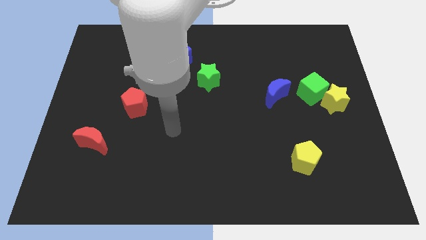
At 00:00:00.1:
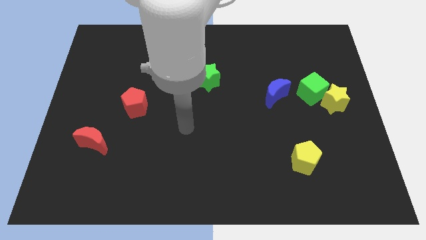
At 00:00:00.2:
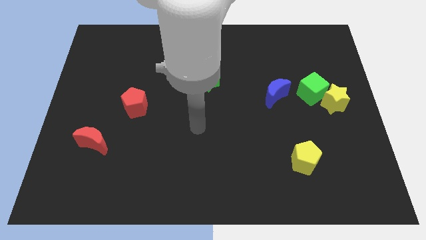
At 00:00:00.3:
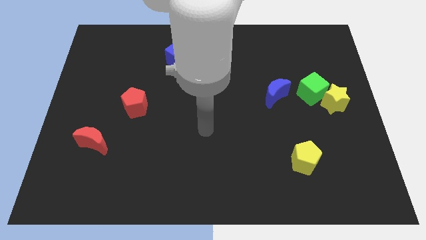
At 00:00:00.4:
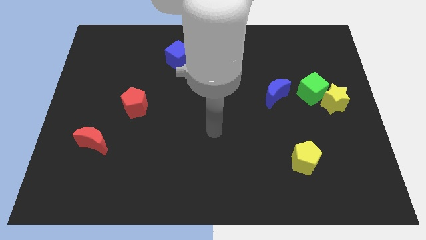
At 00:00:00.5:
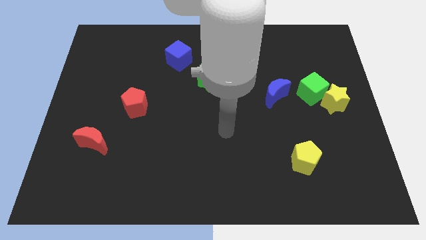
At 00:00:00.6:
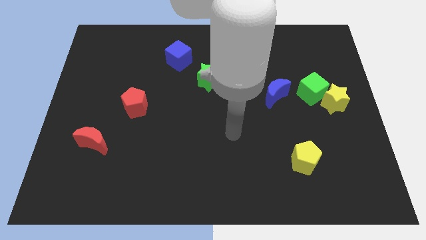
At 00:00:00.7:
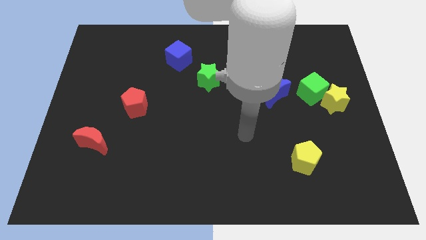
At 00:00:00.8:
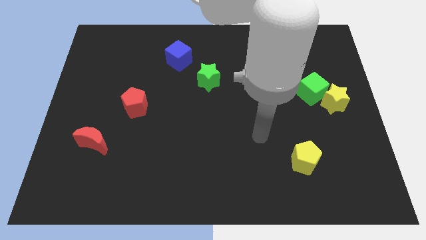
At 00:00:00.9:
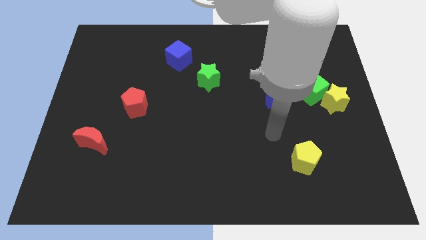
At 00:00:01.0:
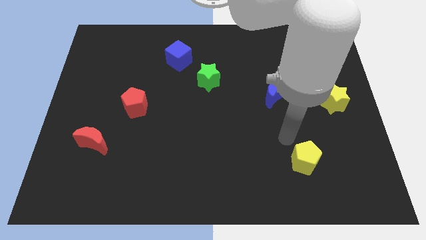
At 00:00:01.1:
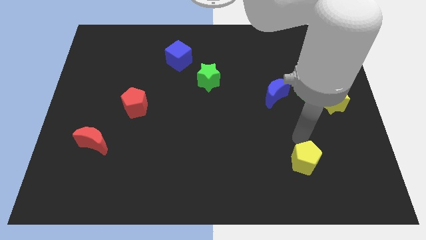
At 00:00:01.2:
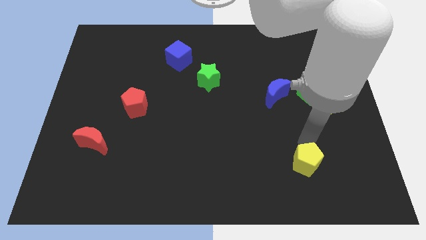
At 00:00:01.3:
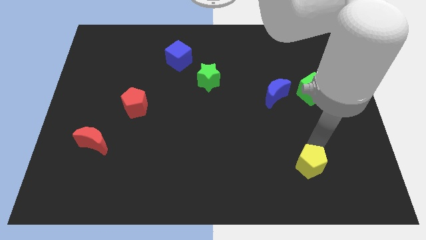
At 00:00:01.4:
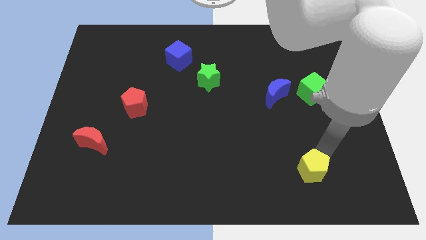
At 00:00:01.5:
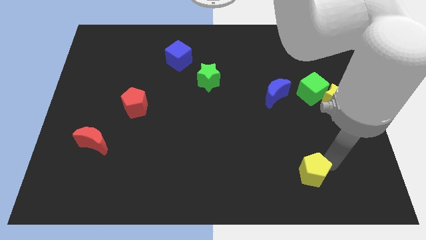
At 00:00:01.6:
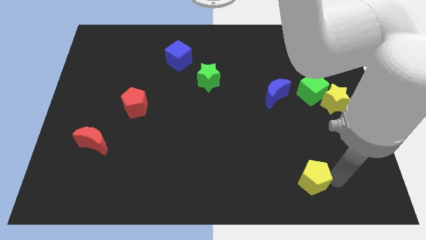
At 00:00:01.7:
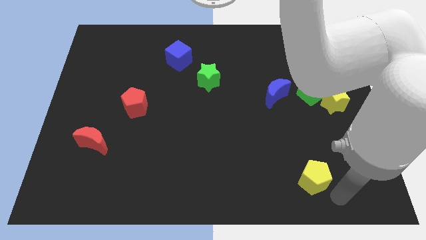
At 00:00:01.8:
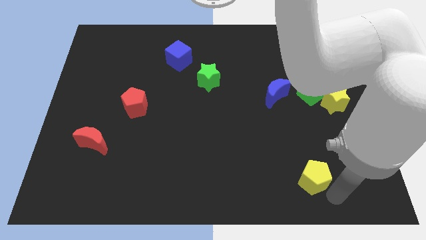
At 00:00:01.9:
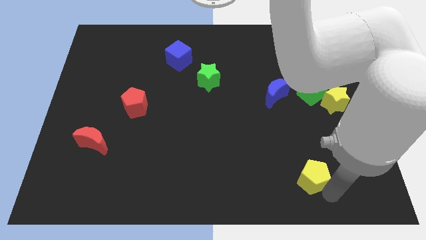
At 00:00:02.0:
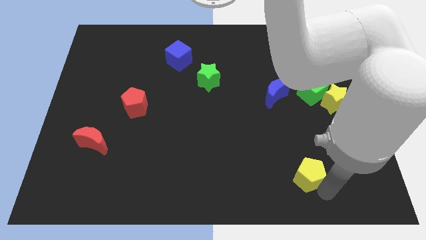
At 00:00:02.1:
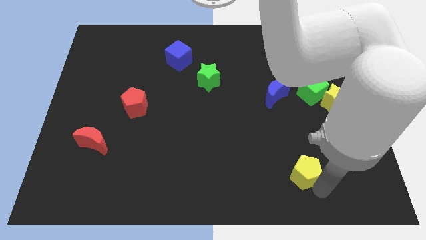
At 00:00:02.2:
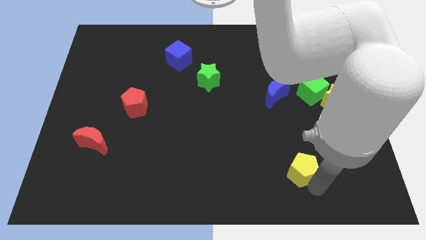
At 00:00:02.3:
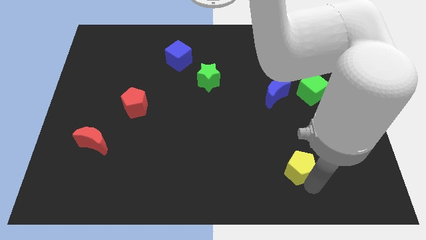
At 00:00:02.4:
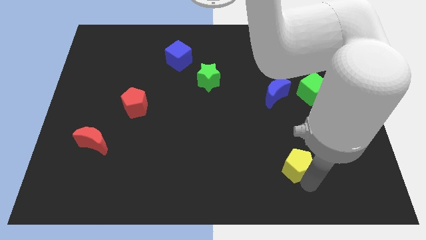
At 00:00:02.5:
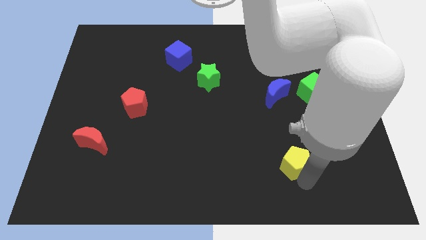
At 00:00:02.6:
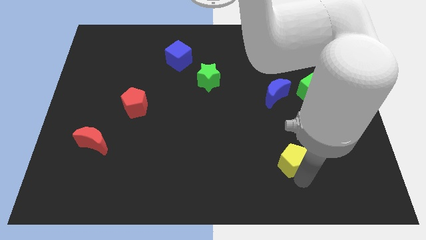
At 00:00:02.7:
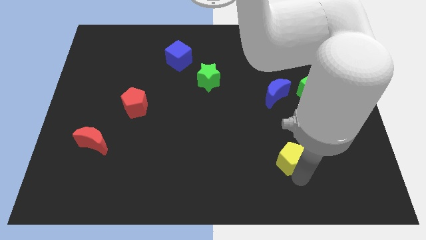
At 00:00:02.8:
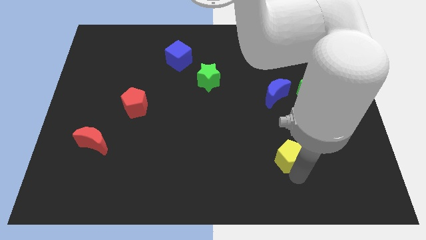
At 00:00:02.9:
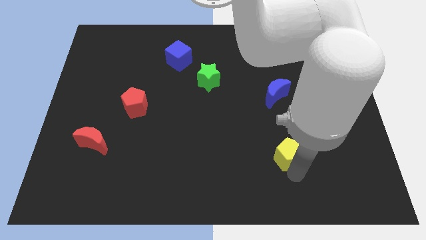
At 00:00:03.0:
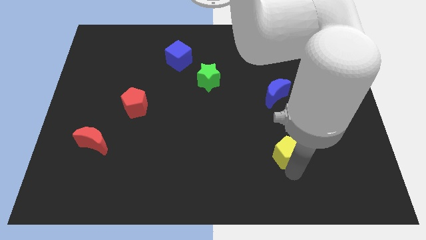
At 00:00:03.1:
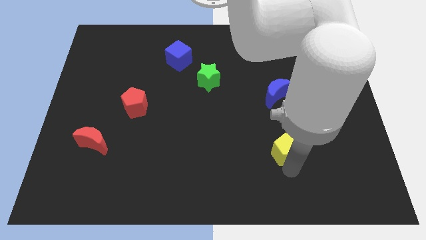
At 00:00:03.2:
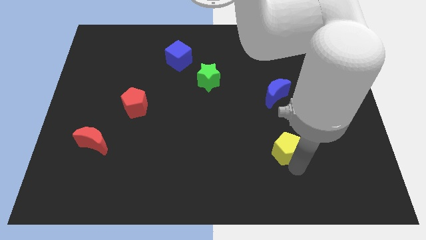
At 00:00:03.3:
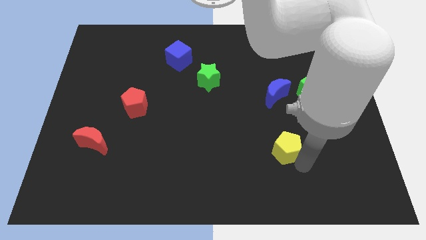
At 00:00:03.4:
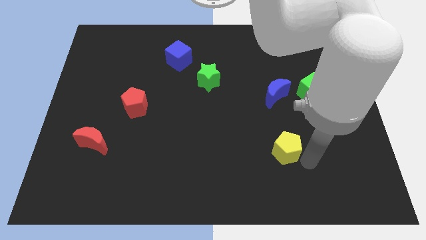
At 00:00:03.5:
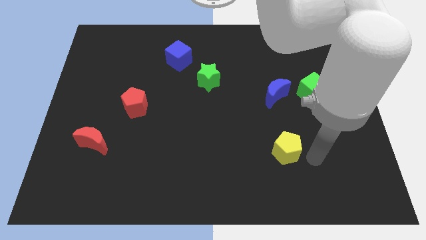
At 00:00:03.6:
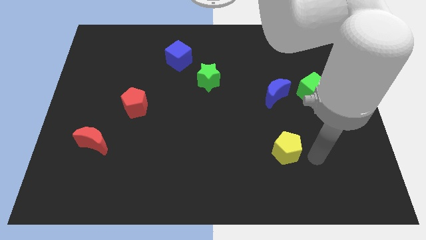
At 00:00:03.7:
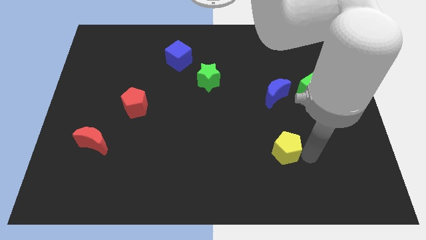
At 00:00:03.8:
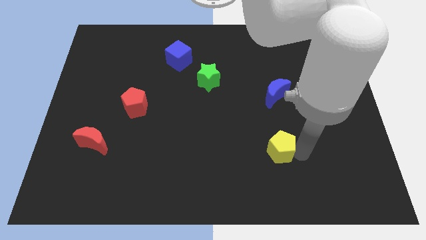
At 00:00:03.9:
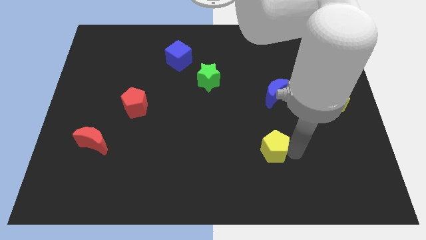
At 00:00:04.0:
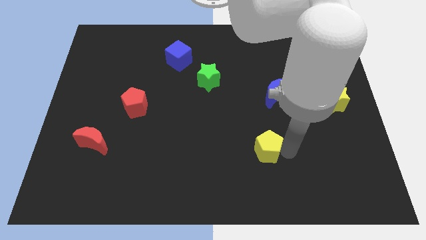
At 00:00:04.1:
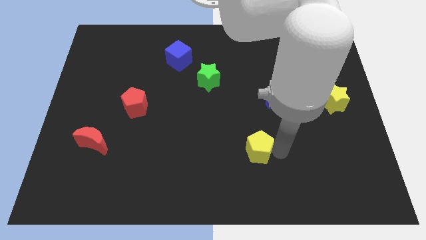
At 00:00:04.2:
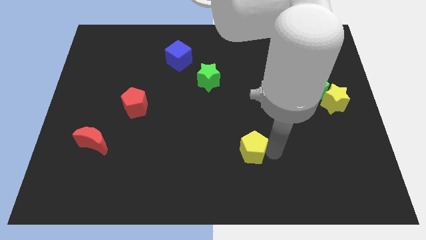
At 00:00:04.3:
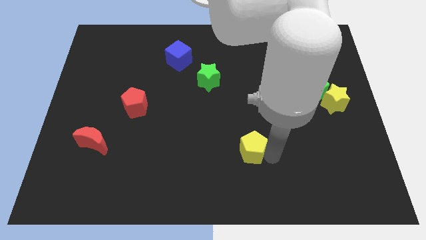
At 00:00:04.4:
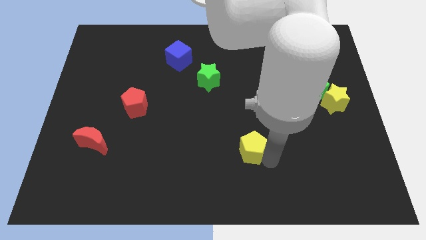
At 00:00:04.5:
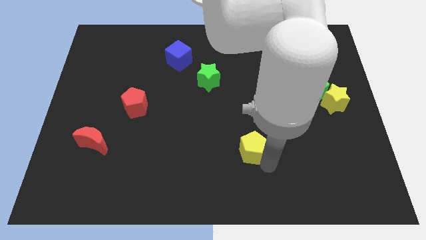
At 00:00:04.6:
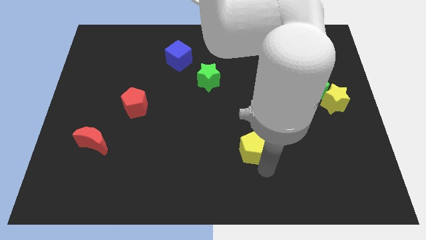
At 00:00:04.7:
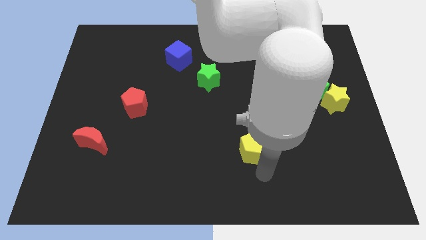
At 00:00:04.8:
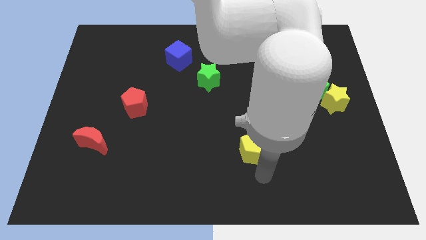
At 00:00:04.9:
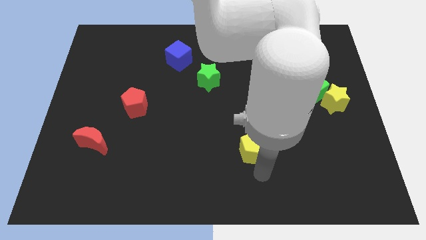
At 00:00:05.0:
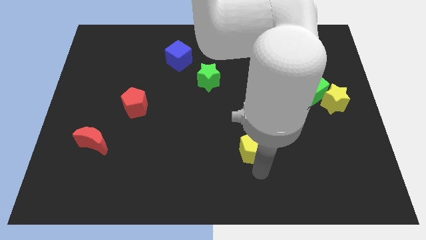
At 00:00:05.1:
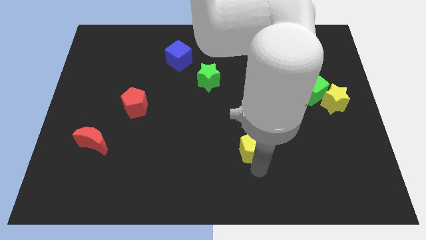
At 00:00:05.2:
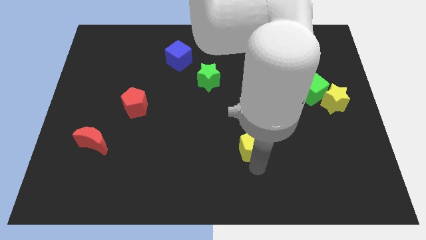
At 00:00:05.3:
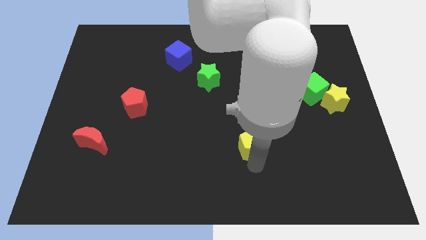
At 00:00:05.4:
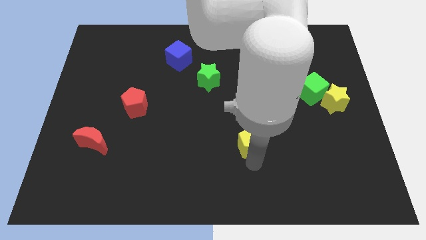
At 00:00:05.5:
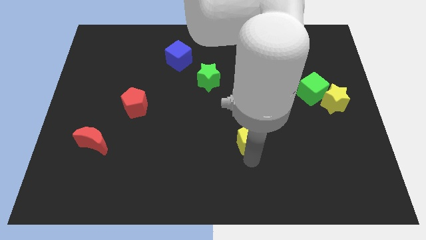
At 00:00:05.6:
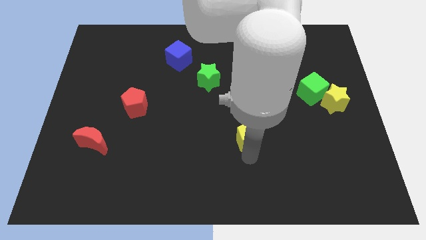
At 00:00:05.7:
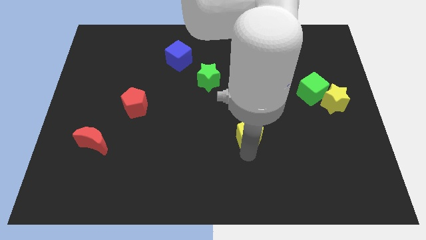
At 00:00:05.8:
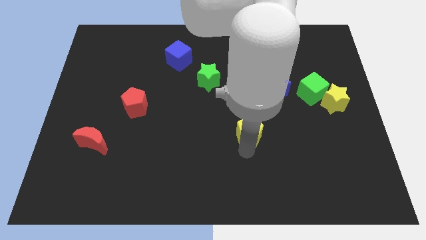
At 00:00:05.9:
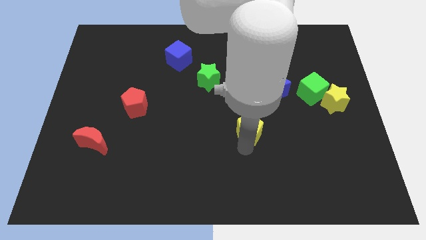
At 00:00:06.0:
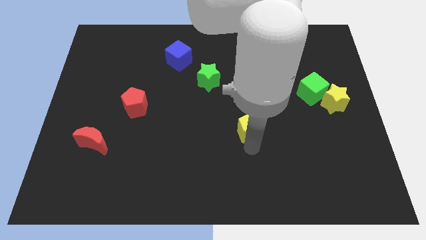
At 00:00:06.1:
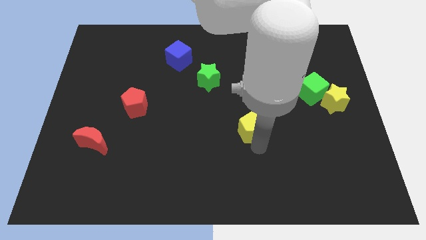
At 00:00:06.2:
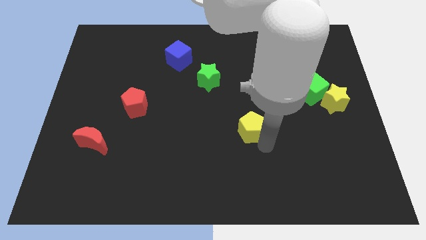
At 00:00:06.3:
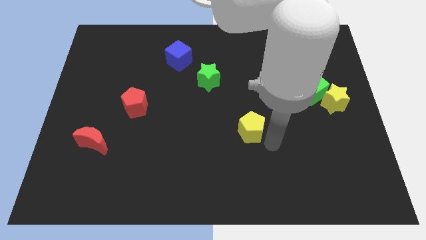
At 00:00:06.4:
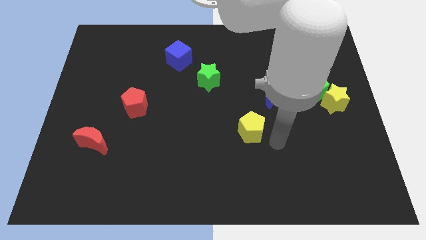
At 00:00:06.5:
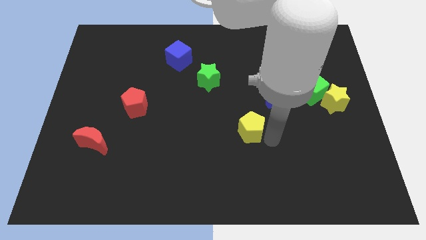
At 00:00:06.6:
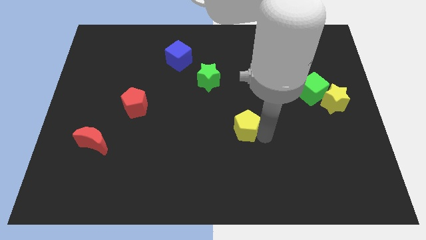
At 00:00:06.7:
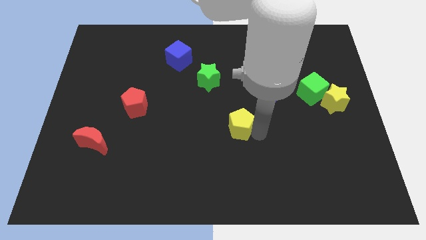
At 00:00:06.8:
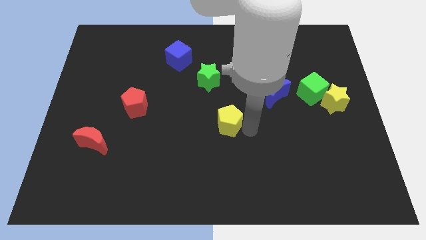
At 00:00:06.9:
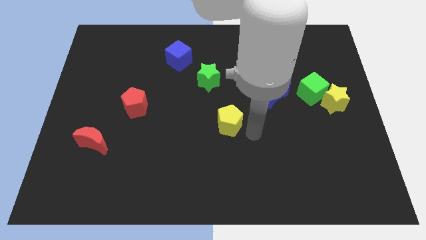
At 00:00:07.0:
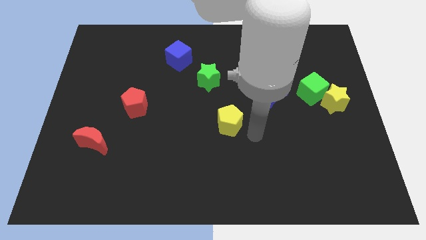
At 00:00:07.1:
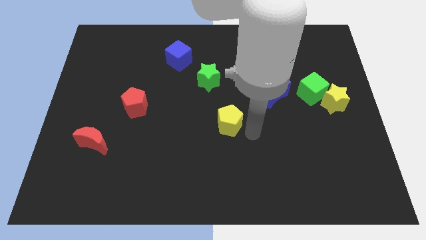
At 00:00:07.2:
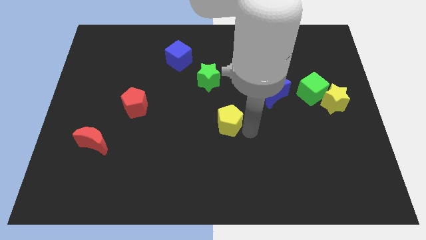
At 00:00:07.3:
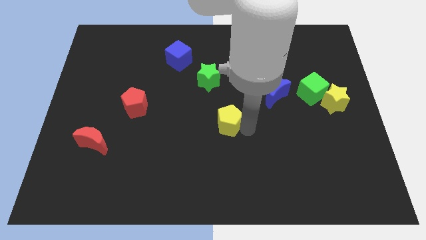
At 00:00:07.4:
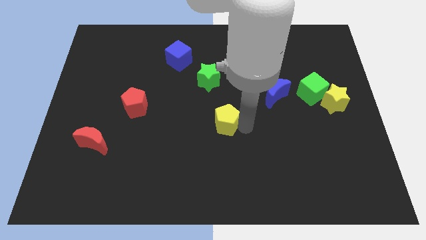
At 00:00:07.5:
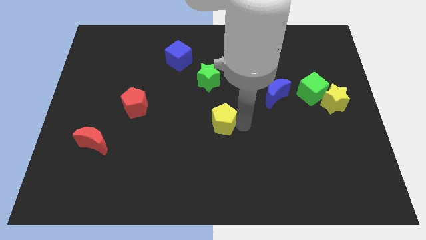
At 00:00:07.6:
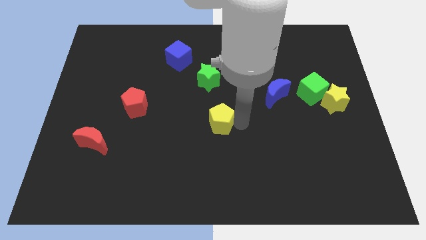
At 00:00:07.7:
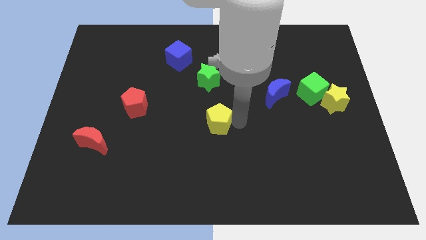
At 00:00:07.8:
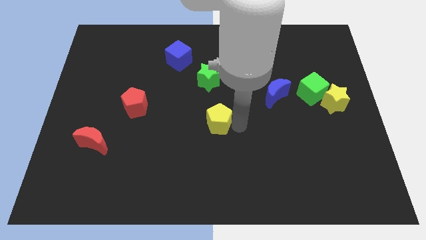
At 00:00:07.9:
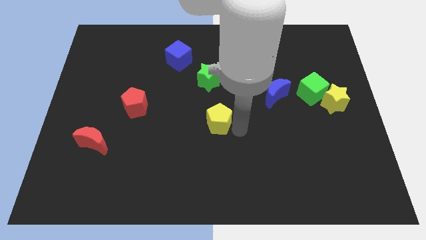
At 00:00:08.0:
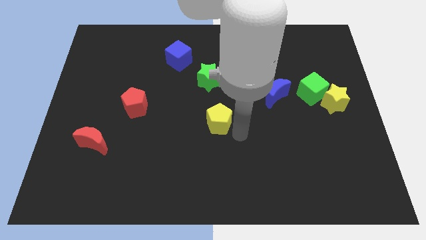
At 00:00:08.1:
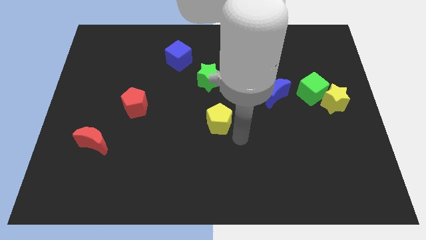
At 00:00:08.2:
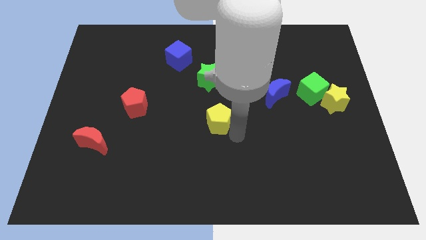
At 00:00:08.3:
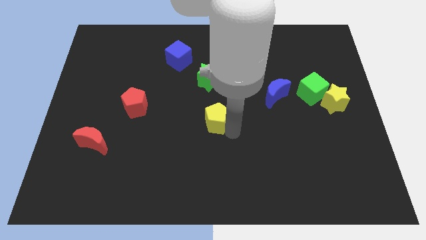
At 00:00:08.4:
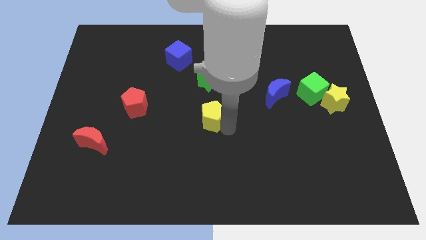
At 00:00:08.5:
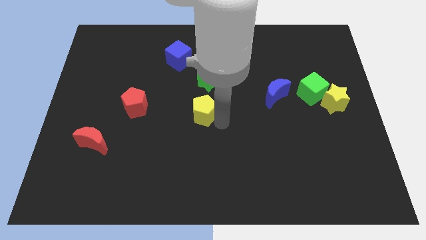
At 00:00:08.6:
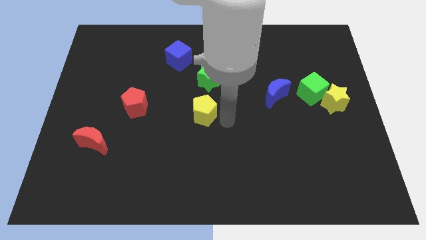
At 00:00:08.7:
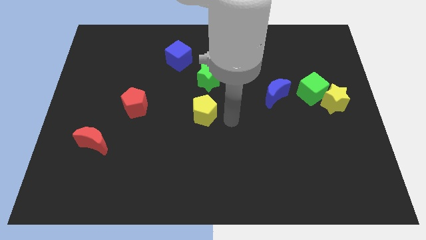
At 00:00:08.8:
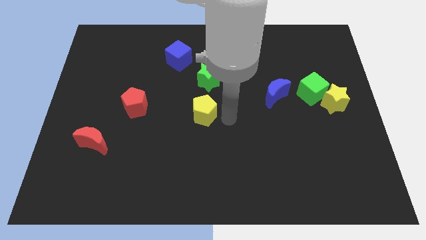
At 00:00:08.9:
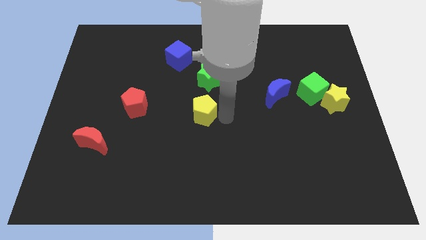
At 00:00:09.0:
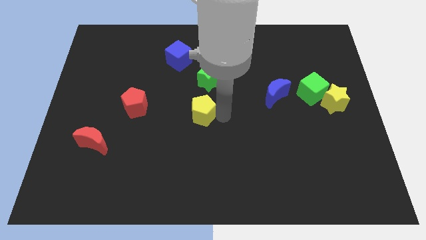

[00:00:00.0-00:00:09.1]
put the yellow pentagon just right of the red pentagon
